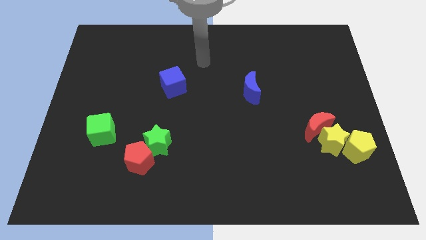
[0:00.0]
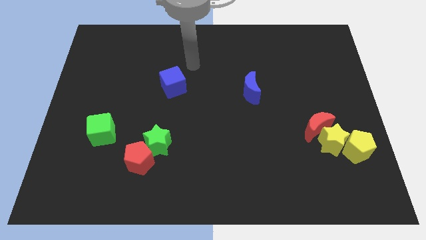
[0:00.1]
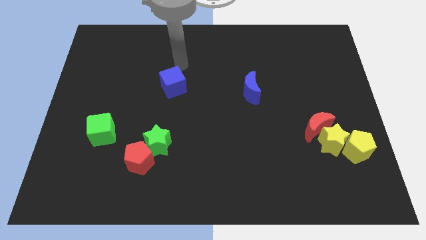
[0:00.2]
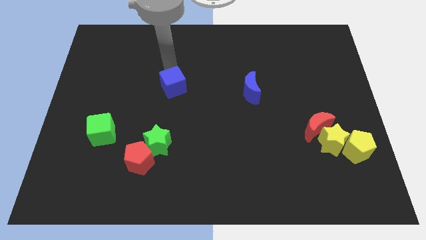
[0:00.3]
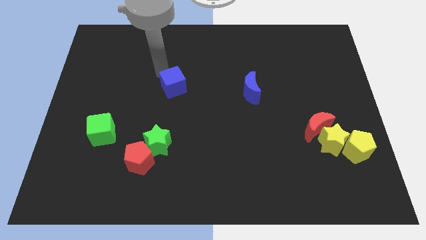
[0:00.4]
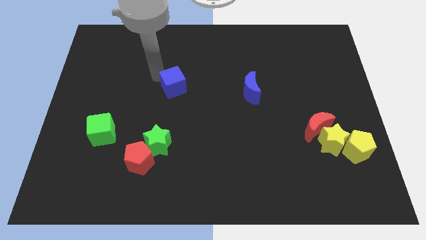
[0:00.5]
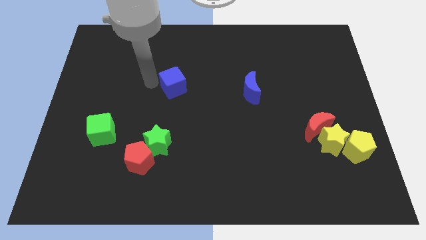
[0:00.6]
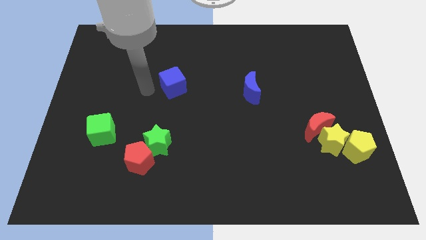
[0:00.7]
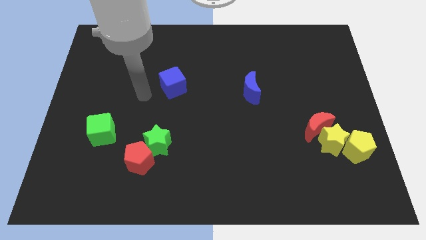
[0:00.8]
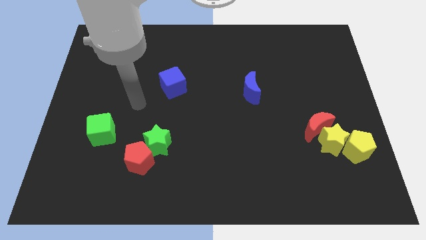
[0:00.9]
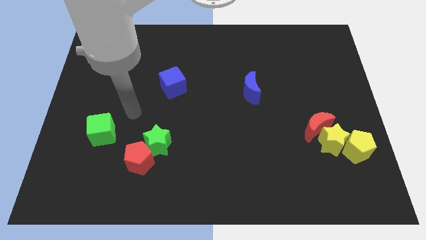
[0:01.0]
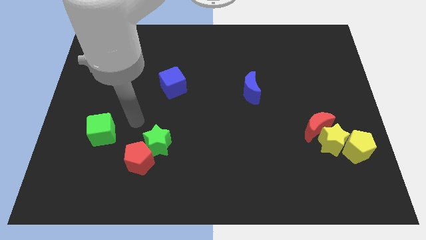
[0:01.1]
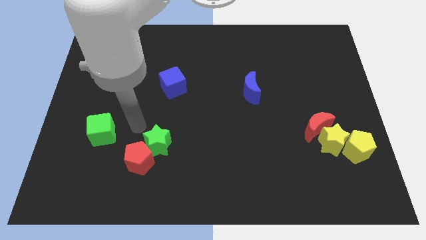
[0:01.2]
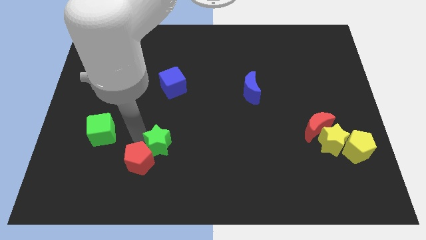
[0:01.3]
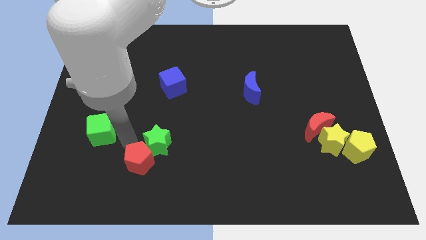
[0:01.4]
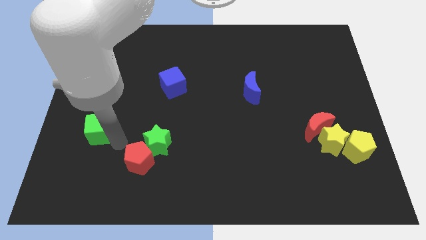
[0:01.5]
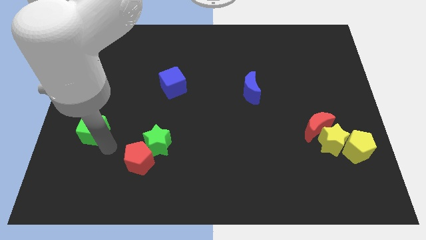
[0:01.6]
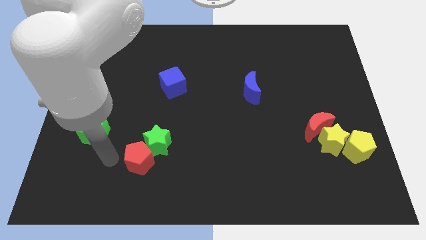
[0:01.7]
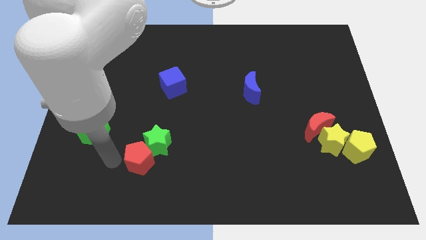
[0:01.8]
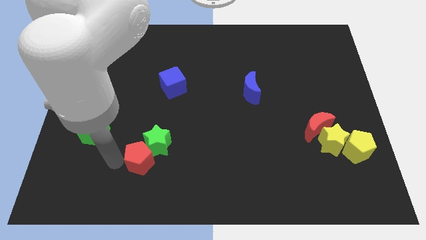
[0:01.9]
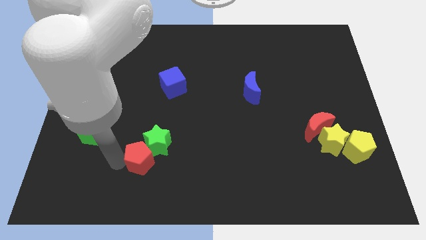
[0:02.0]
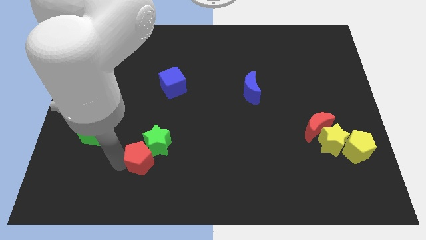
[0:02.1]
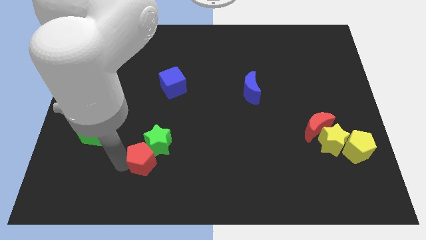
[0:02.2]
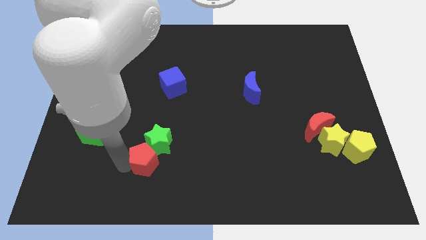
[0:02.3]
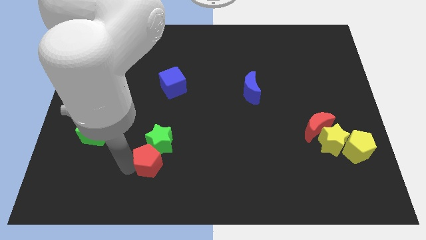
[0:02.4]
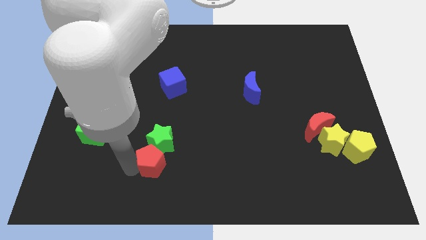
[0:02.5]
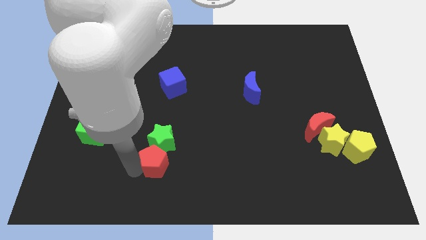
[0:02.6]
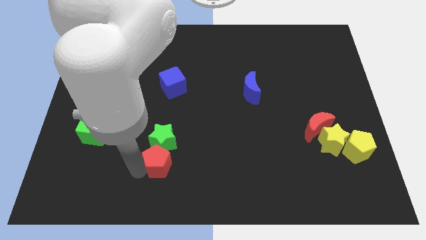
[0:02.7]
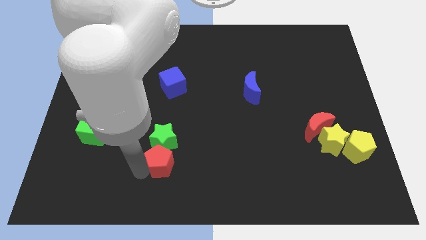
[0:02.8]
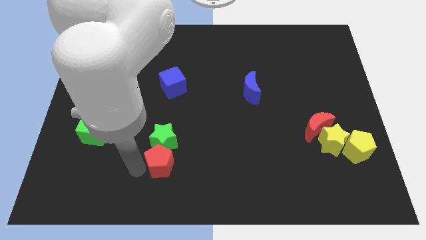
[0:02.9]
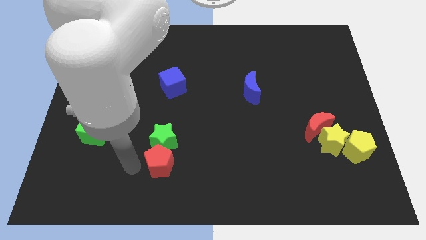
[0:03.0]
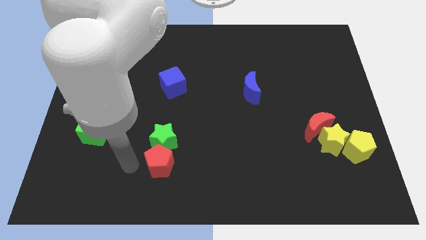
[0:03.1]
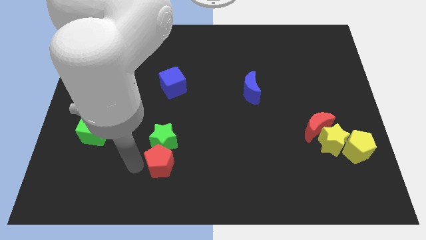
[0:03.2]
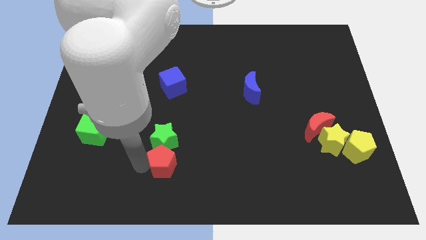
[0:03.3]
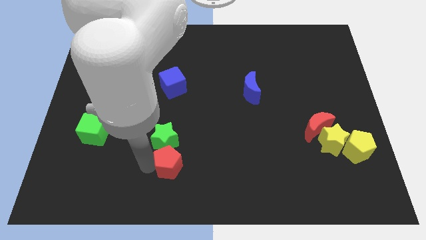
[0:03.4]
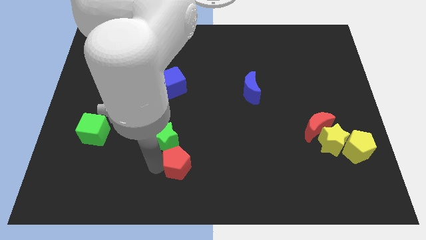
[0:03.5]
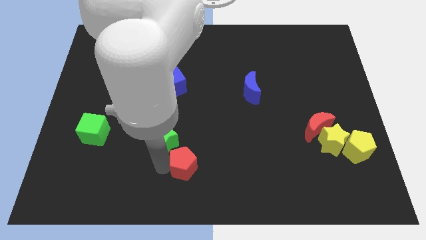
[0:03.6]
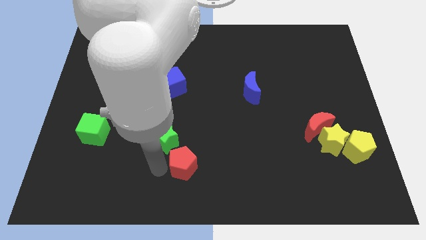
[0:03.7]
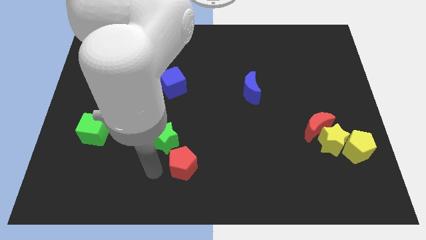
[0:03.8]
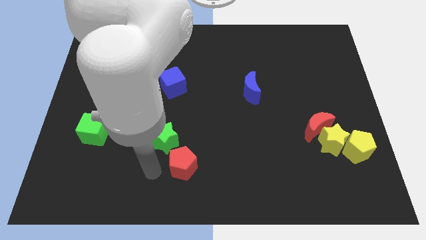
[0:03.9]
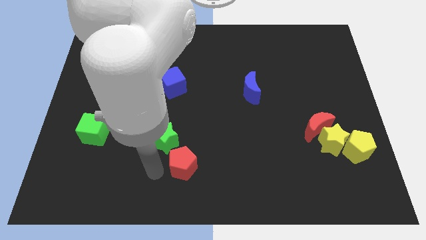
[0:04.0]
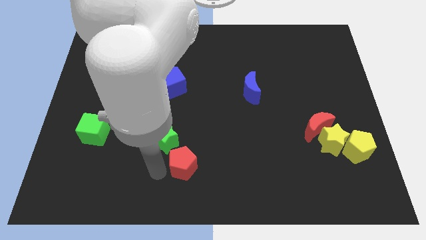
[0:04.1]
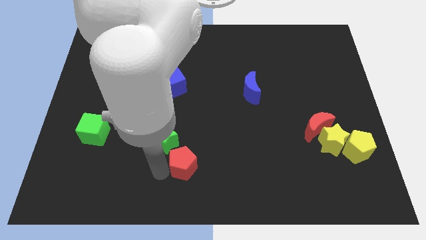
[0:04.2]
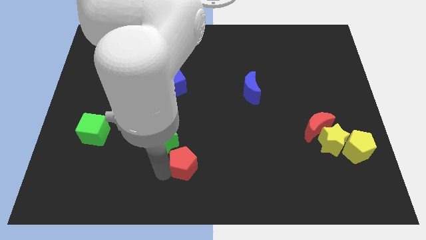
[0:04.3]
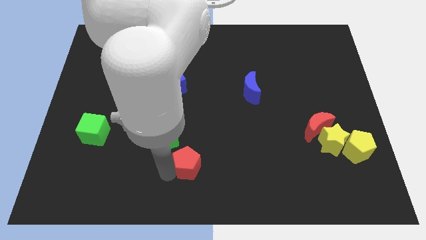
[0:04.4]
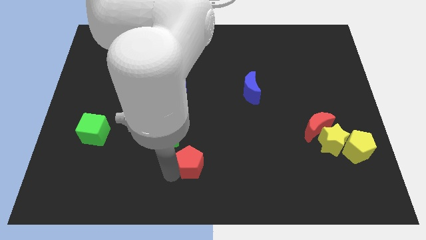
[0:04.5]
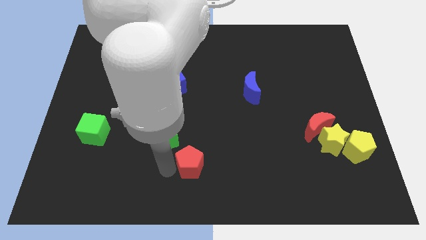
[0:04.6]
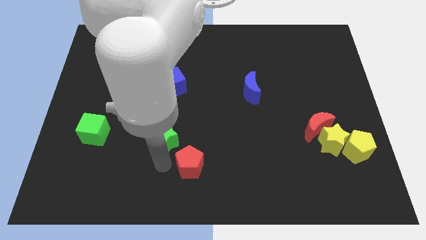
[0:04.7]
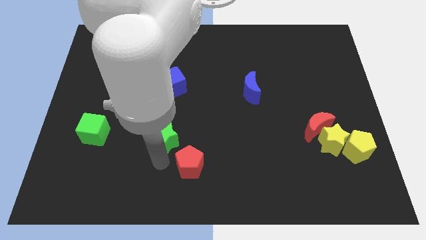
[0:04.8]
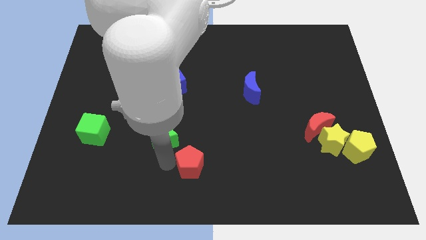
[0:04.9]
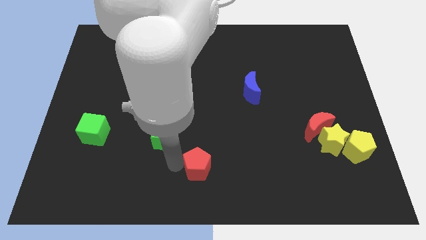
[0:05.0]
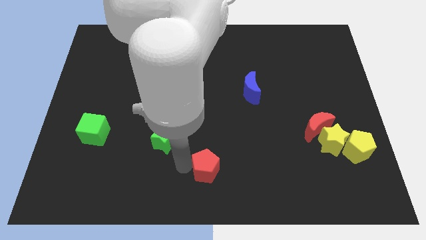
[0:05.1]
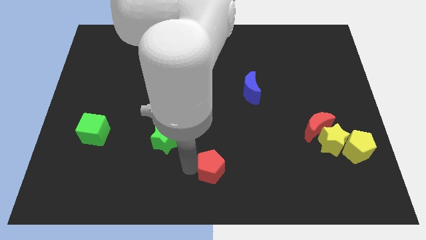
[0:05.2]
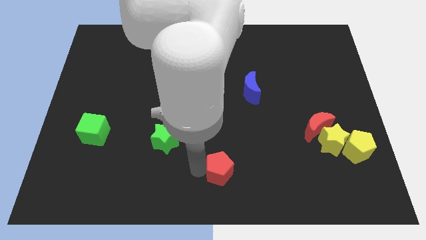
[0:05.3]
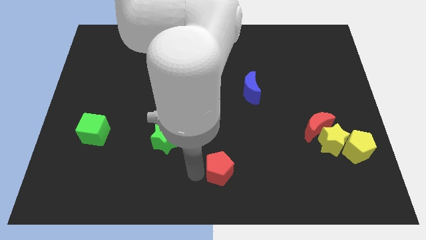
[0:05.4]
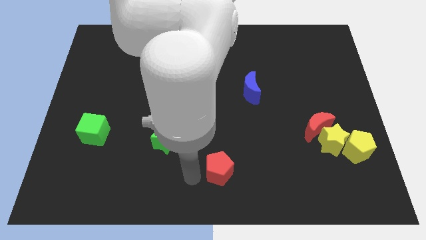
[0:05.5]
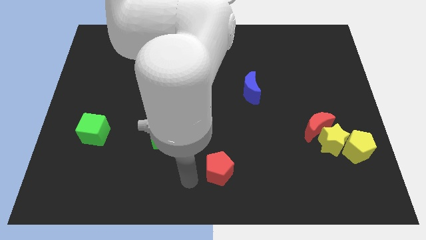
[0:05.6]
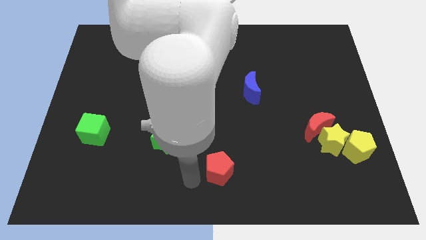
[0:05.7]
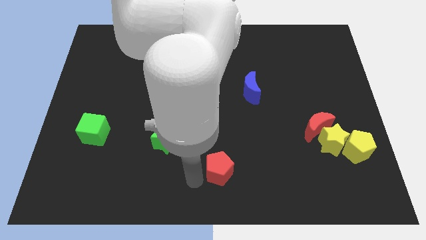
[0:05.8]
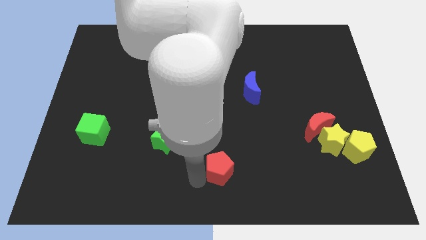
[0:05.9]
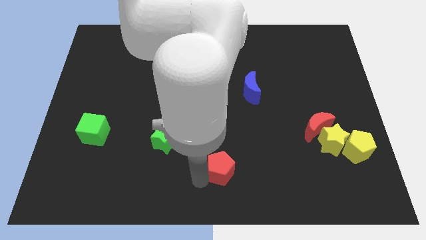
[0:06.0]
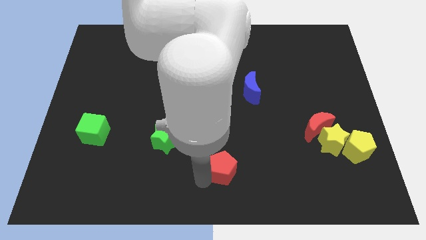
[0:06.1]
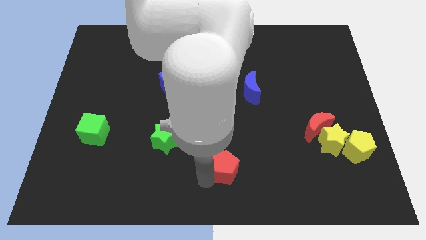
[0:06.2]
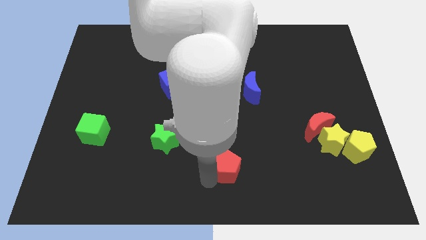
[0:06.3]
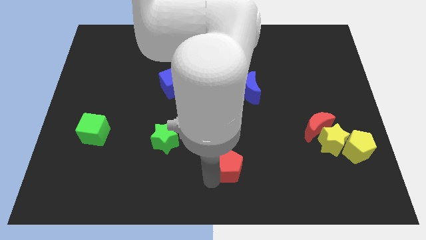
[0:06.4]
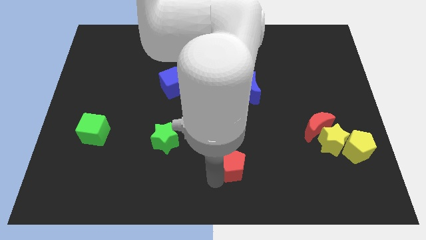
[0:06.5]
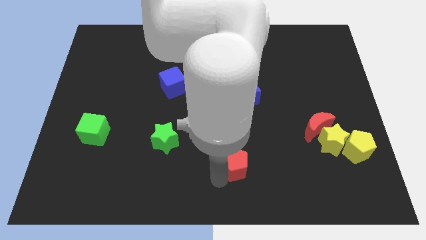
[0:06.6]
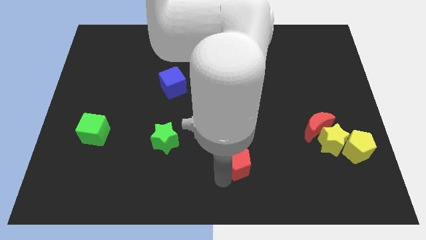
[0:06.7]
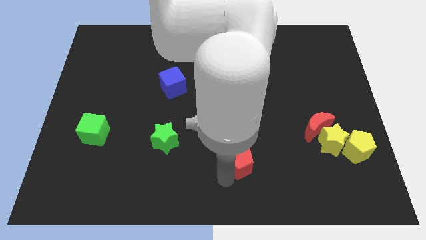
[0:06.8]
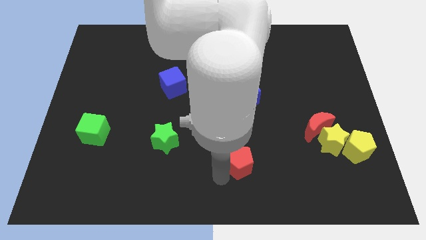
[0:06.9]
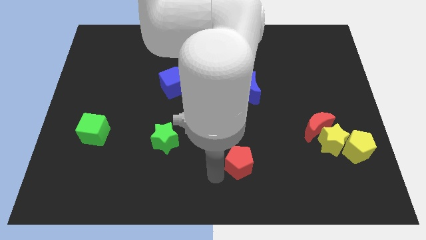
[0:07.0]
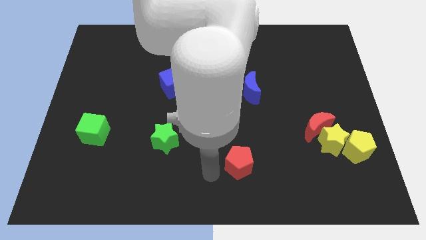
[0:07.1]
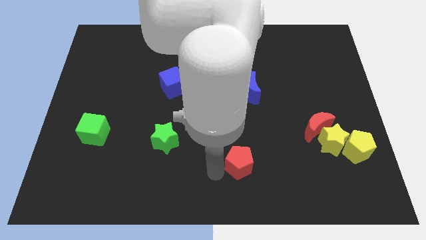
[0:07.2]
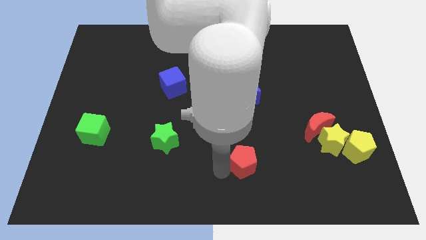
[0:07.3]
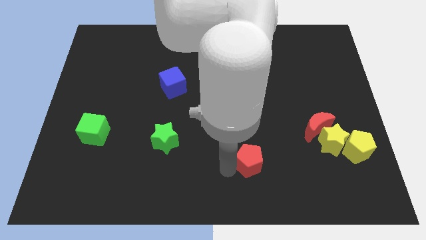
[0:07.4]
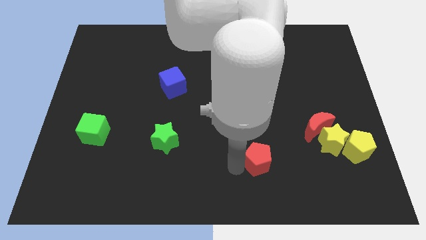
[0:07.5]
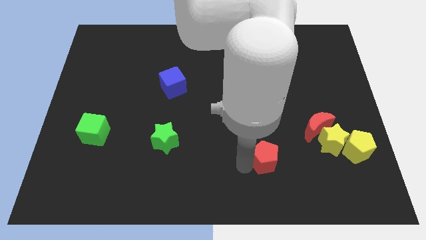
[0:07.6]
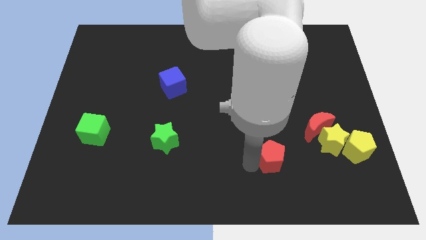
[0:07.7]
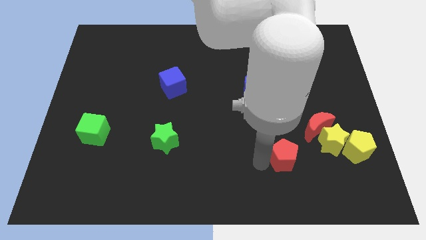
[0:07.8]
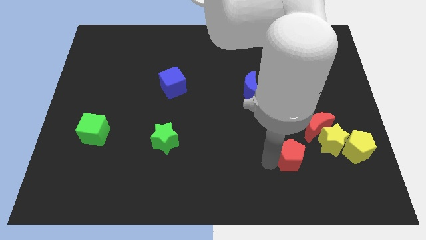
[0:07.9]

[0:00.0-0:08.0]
move the red pentagon to the left side of the yellow pentagon

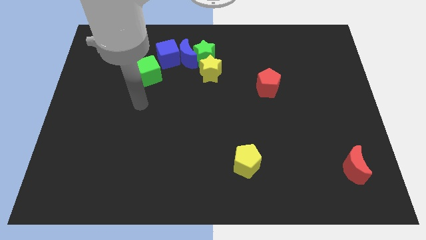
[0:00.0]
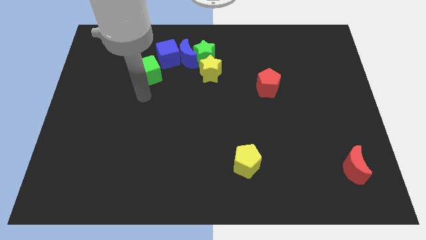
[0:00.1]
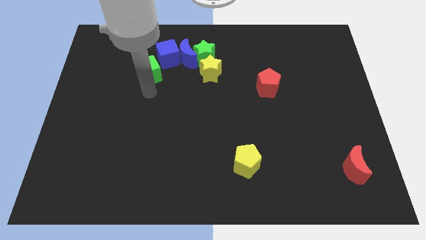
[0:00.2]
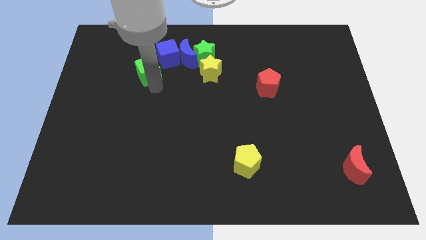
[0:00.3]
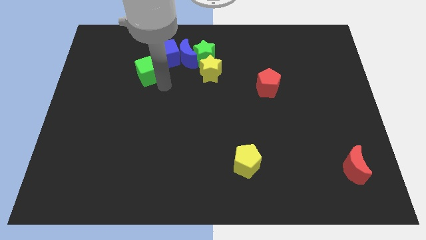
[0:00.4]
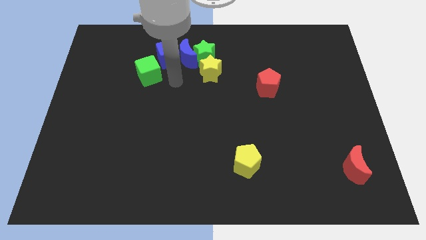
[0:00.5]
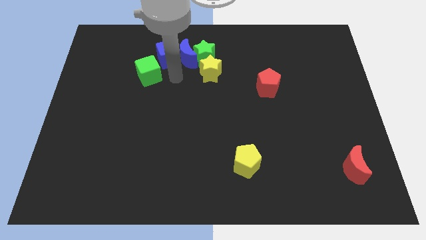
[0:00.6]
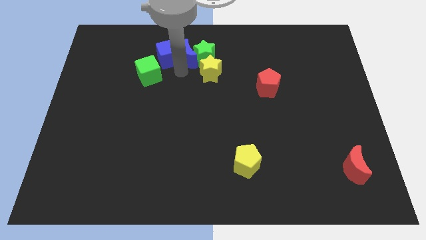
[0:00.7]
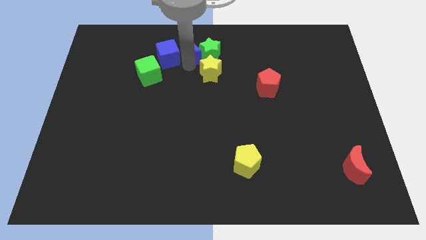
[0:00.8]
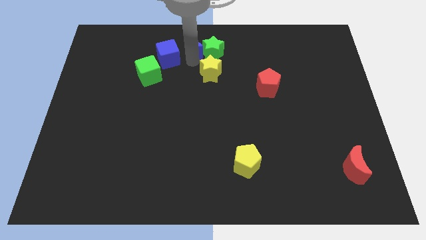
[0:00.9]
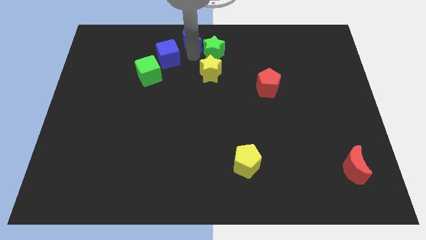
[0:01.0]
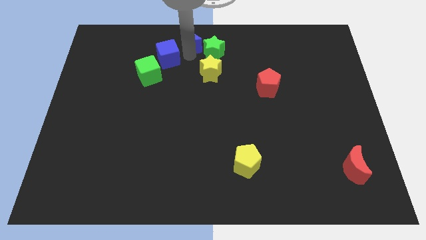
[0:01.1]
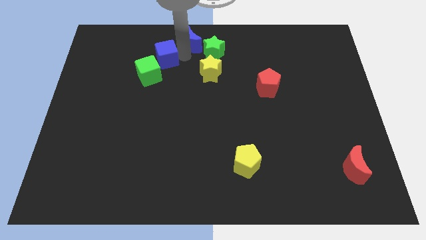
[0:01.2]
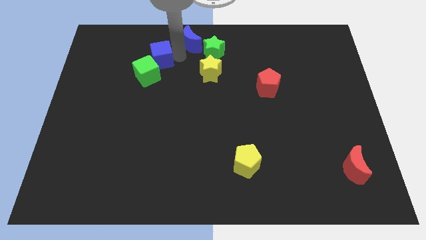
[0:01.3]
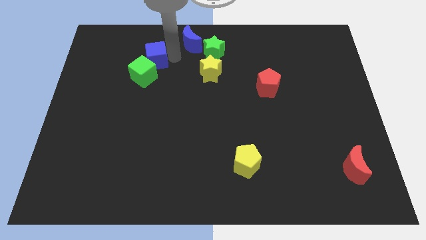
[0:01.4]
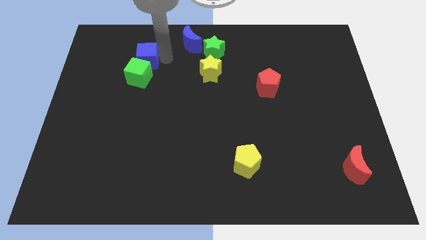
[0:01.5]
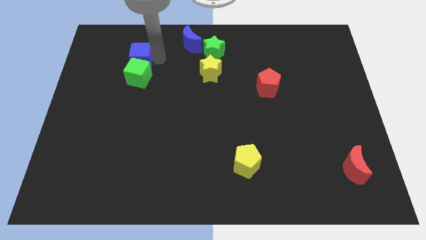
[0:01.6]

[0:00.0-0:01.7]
move the blue cube to the top left of the green cube
